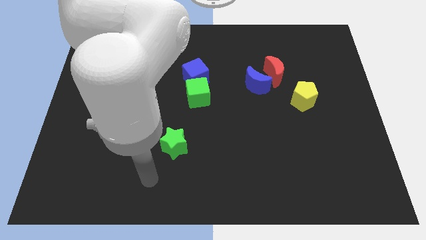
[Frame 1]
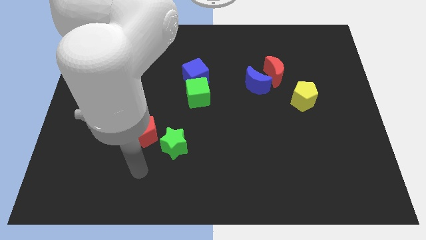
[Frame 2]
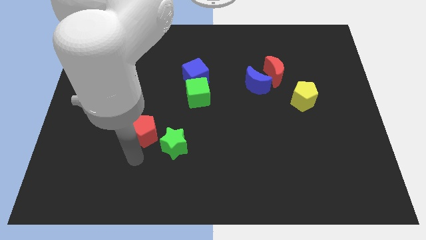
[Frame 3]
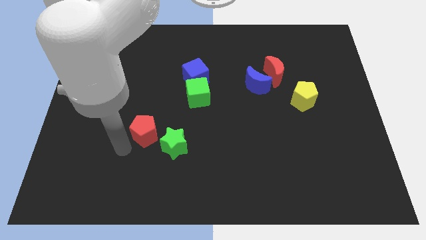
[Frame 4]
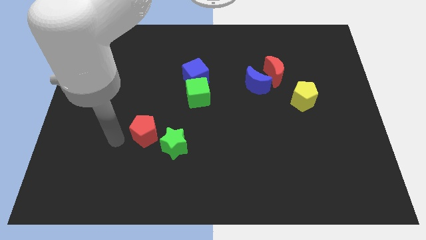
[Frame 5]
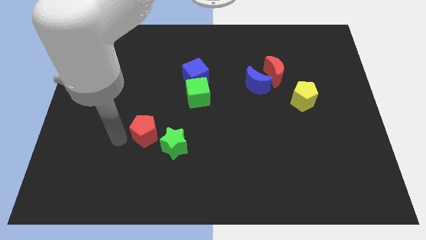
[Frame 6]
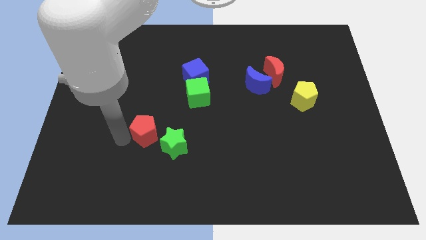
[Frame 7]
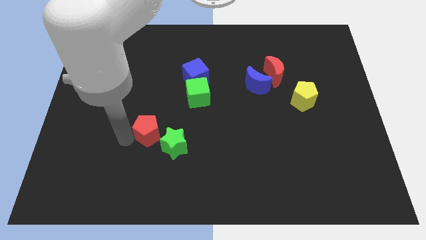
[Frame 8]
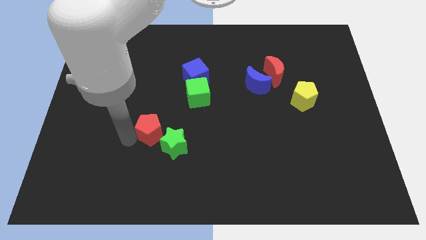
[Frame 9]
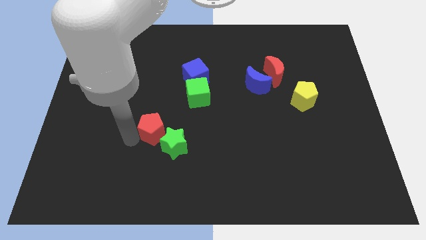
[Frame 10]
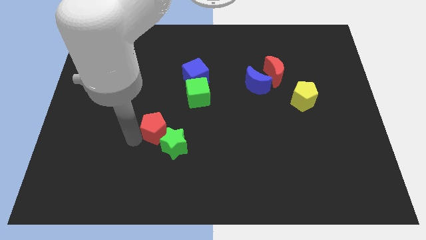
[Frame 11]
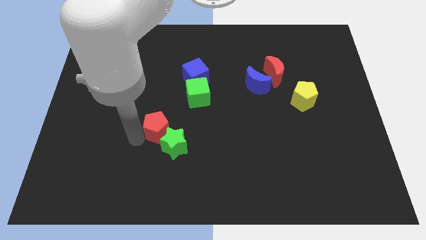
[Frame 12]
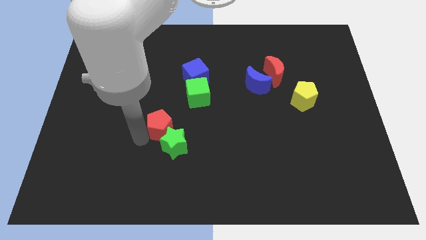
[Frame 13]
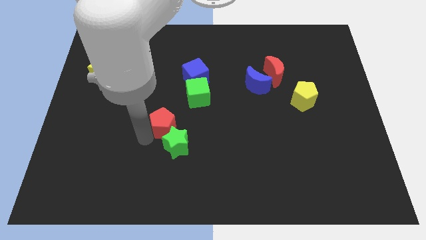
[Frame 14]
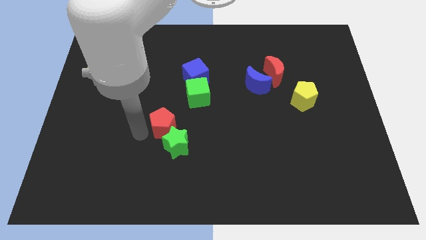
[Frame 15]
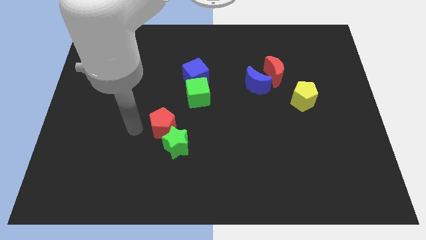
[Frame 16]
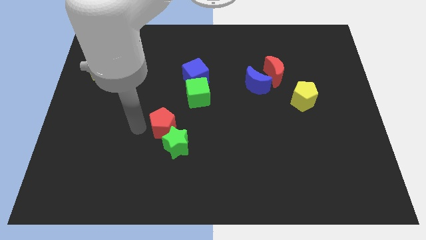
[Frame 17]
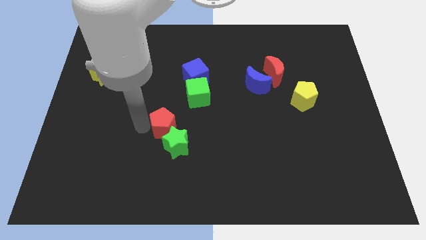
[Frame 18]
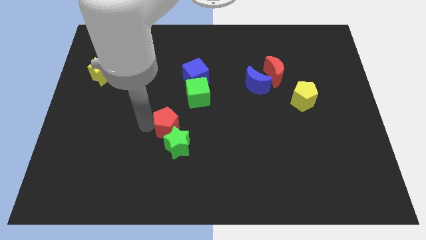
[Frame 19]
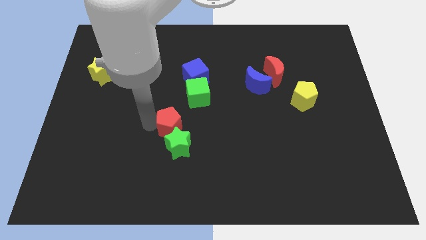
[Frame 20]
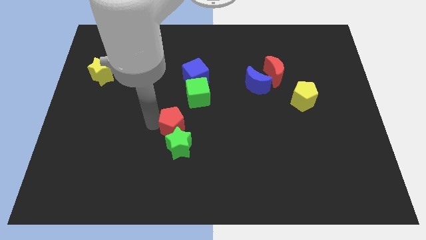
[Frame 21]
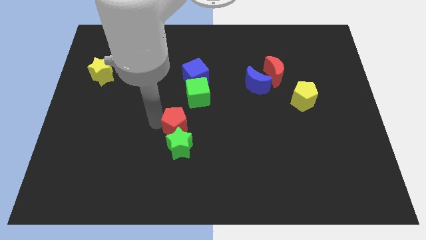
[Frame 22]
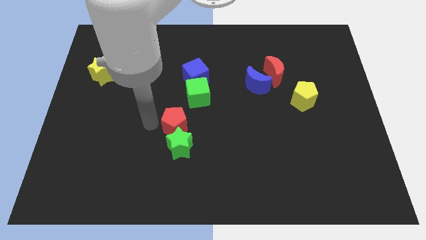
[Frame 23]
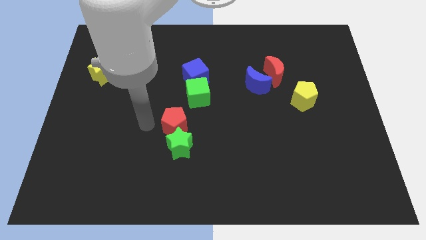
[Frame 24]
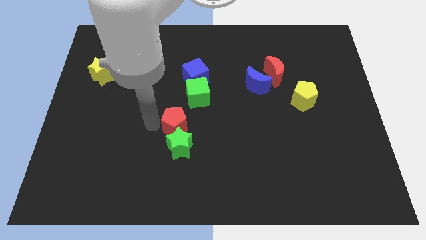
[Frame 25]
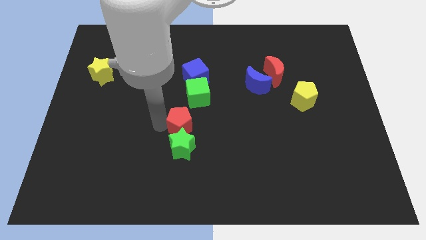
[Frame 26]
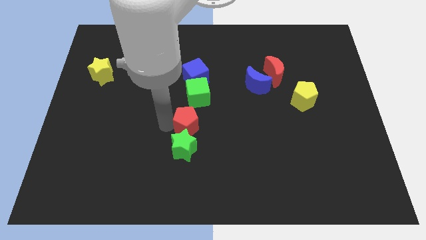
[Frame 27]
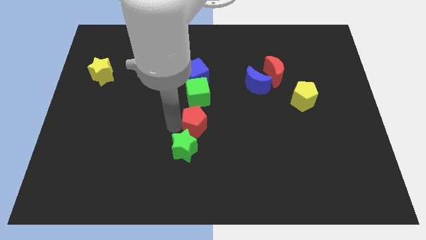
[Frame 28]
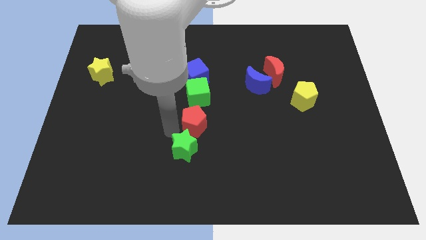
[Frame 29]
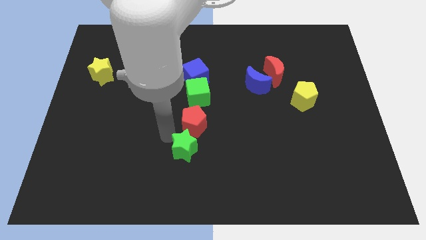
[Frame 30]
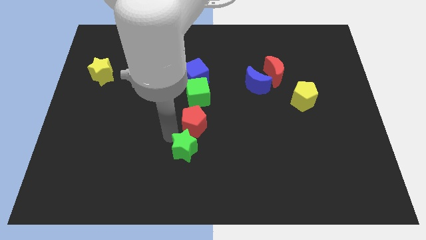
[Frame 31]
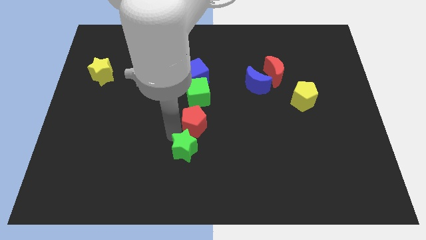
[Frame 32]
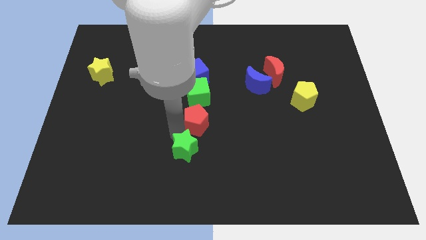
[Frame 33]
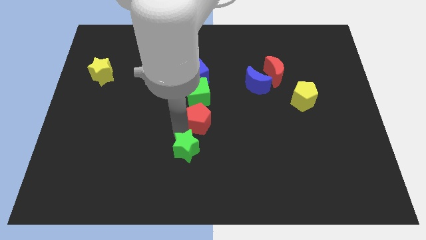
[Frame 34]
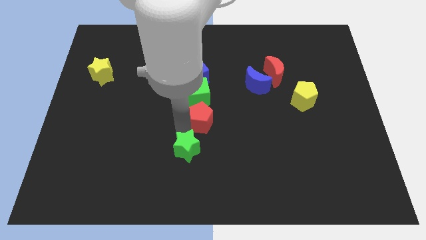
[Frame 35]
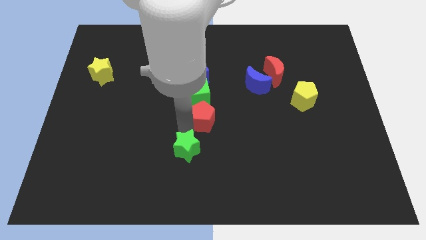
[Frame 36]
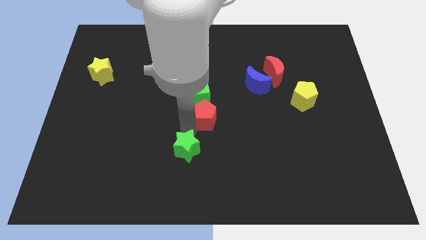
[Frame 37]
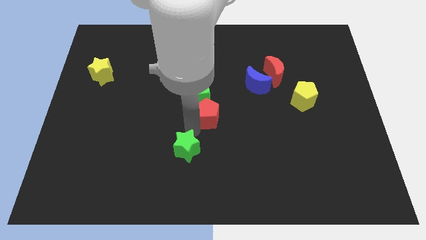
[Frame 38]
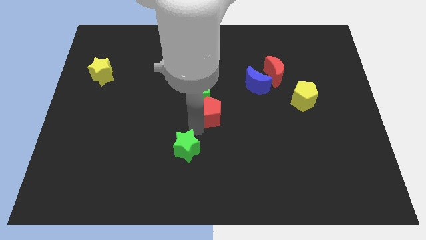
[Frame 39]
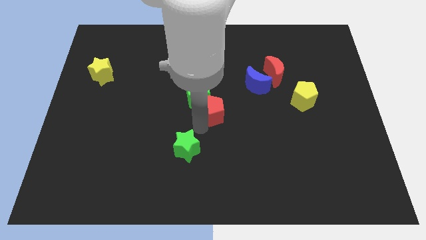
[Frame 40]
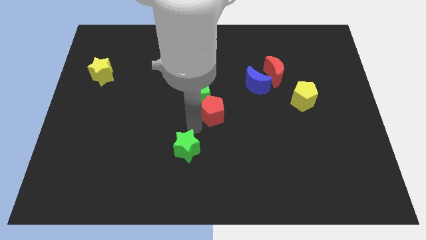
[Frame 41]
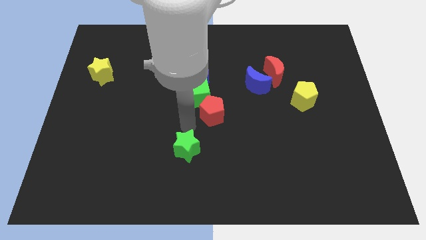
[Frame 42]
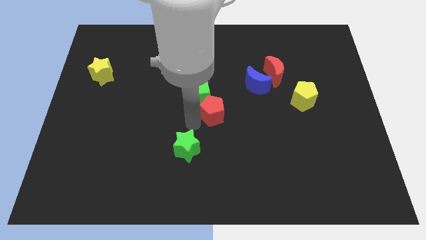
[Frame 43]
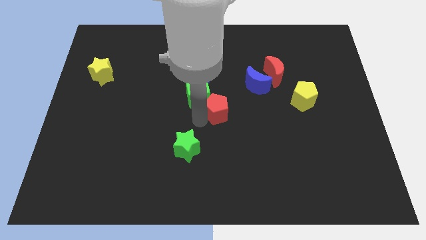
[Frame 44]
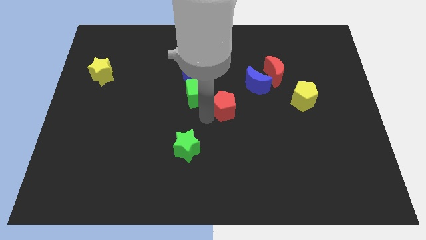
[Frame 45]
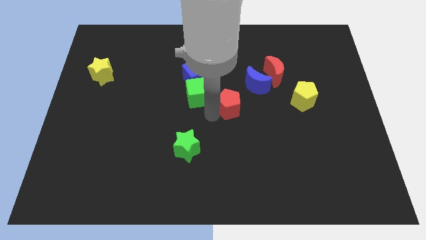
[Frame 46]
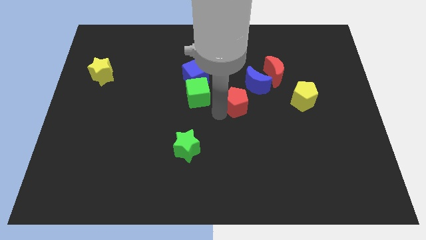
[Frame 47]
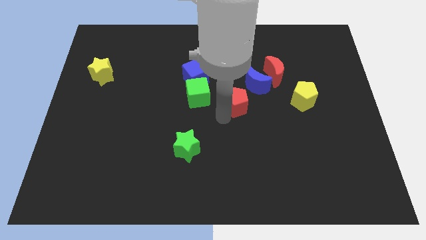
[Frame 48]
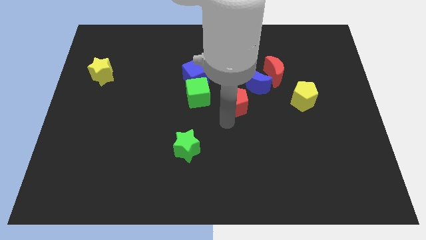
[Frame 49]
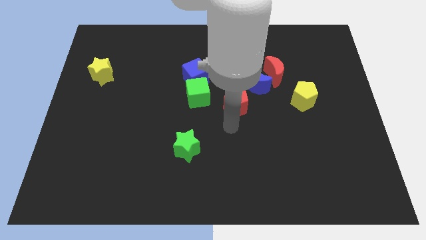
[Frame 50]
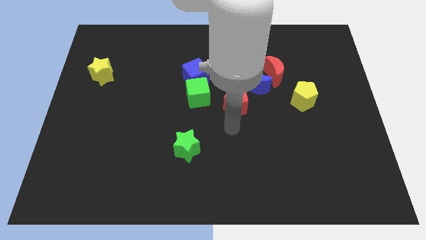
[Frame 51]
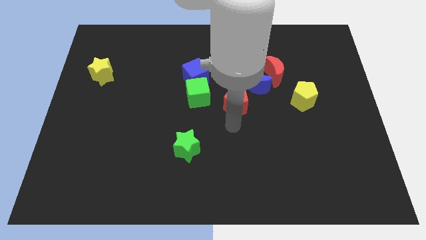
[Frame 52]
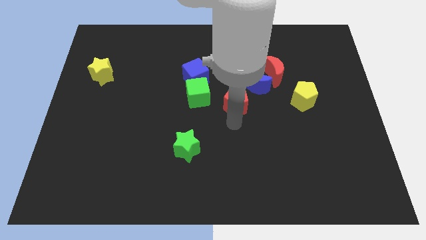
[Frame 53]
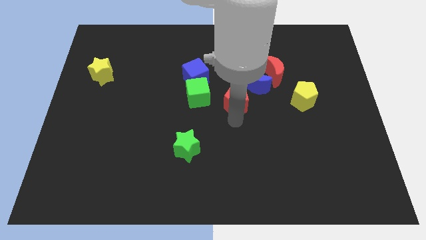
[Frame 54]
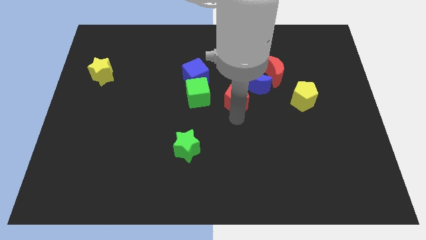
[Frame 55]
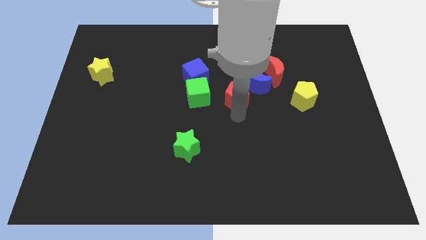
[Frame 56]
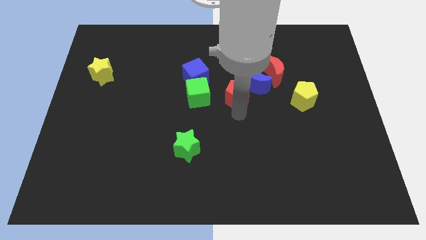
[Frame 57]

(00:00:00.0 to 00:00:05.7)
push the red pentagon diagonally up and right

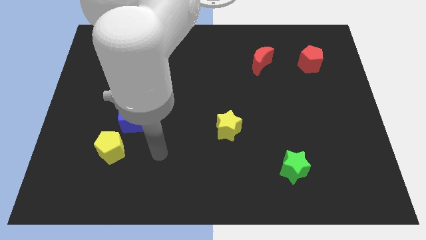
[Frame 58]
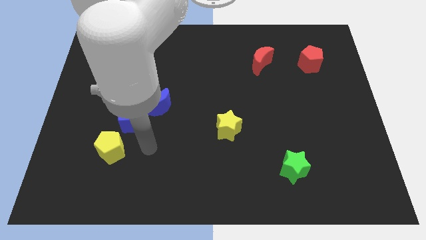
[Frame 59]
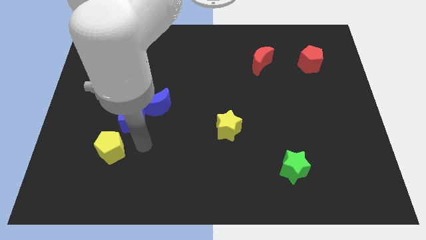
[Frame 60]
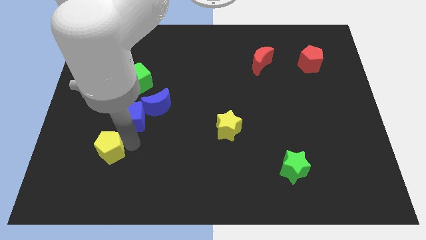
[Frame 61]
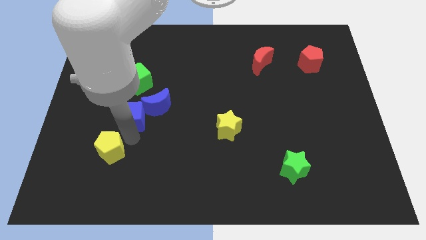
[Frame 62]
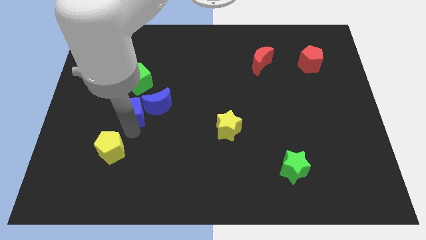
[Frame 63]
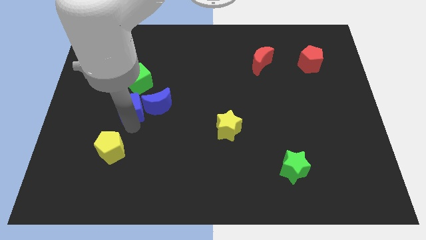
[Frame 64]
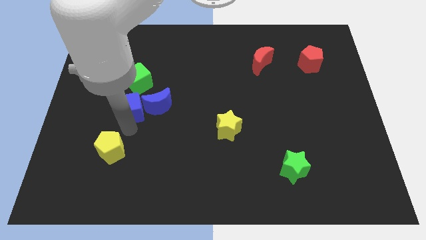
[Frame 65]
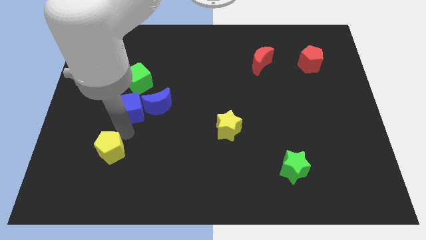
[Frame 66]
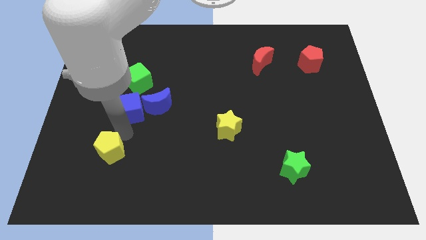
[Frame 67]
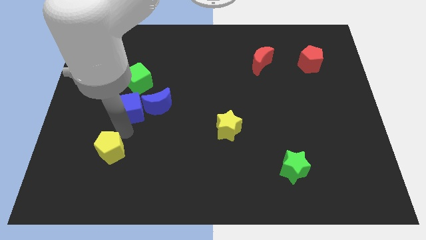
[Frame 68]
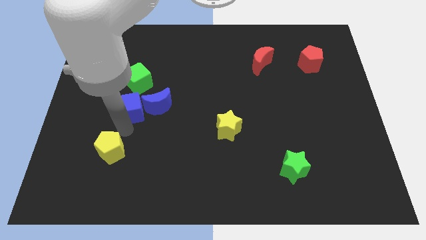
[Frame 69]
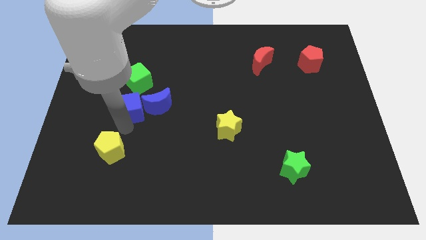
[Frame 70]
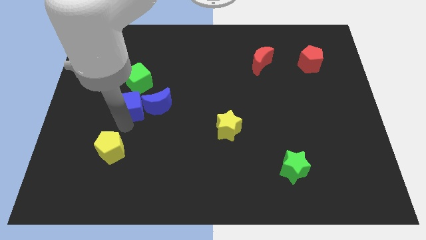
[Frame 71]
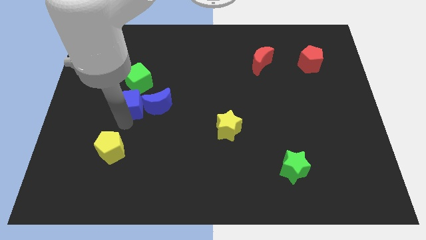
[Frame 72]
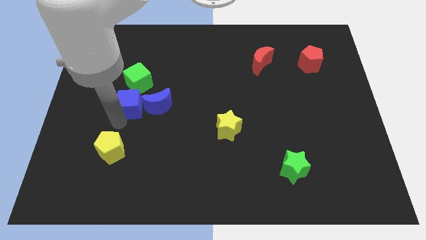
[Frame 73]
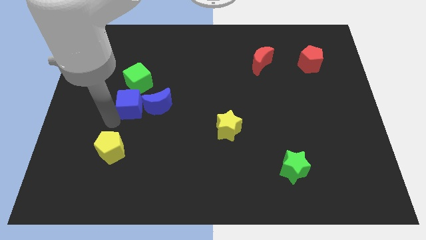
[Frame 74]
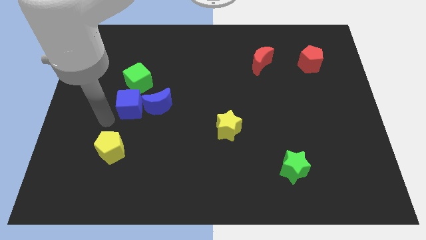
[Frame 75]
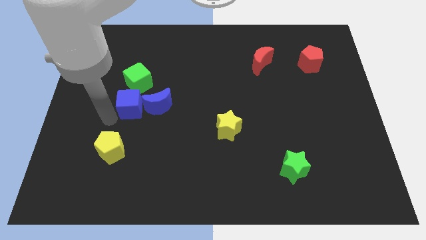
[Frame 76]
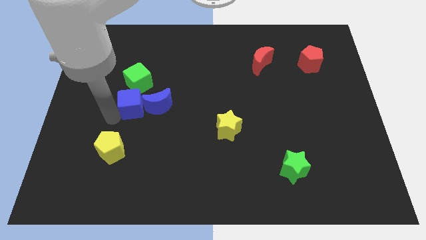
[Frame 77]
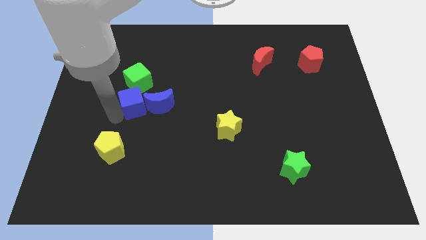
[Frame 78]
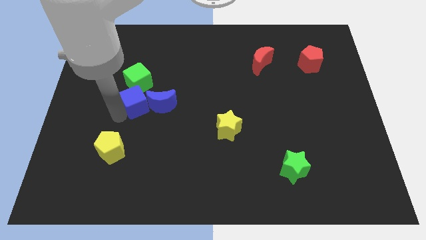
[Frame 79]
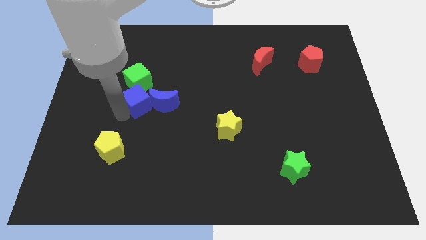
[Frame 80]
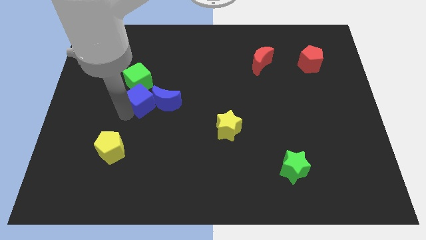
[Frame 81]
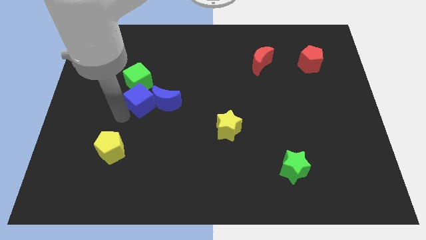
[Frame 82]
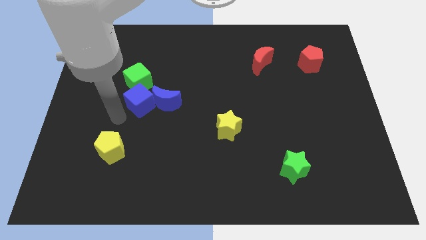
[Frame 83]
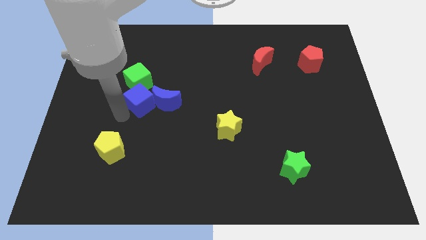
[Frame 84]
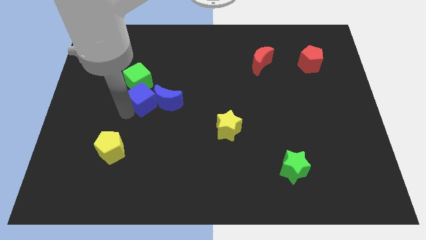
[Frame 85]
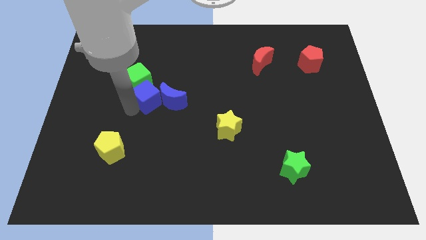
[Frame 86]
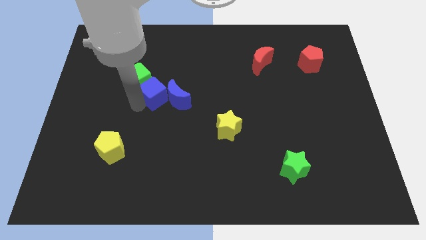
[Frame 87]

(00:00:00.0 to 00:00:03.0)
move the blue cube a little diagonally up and to the right
